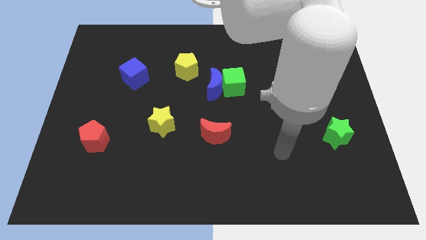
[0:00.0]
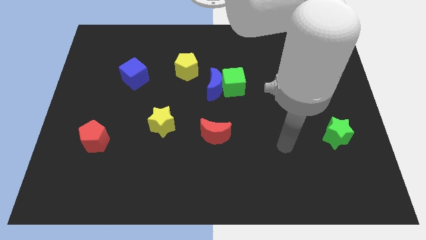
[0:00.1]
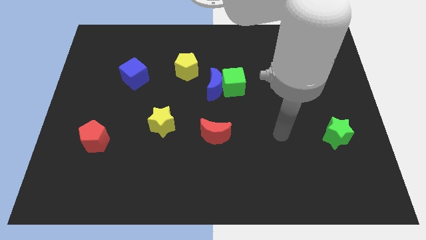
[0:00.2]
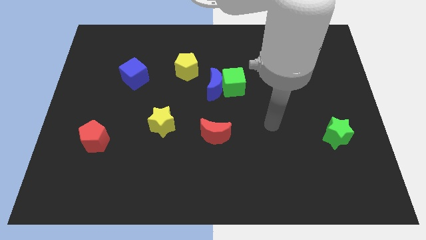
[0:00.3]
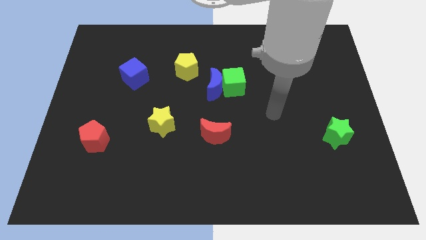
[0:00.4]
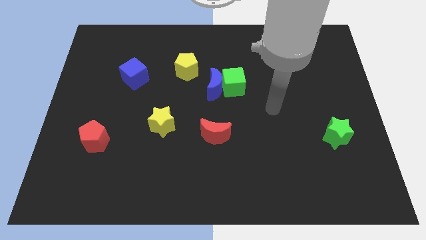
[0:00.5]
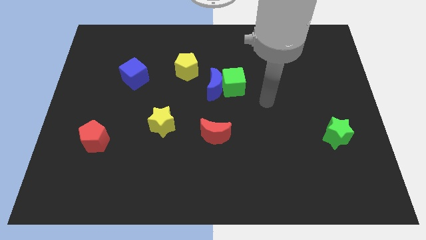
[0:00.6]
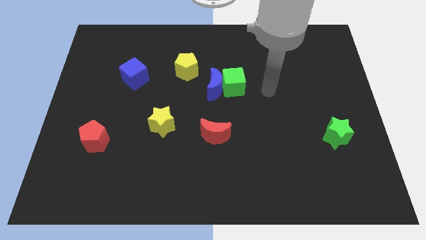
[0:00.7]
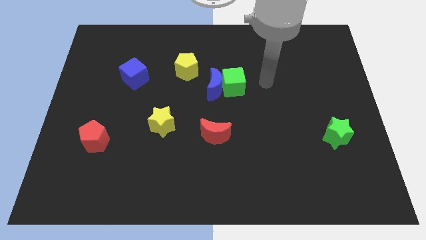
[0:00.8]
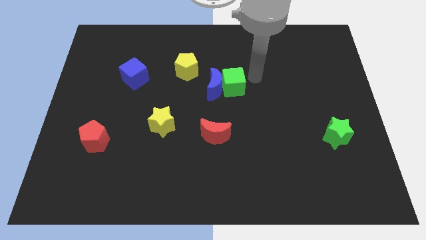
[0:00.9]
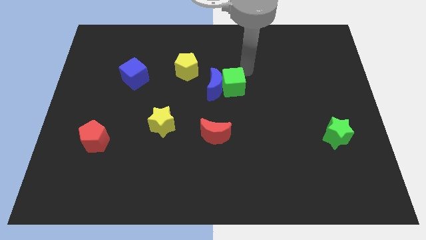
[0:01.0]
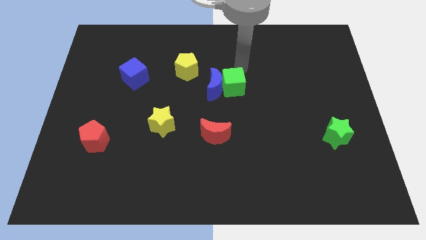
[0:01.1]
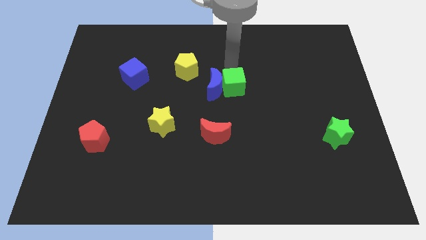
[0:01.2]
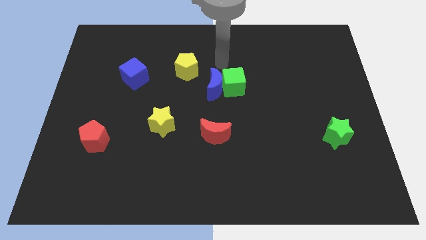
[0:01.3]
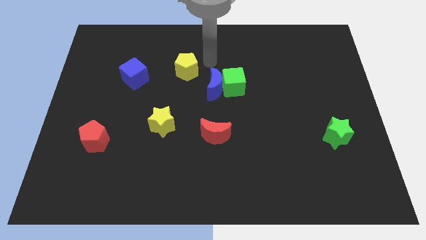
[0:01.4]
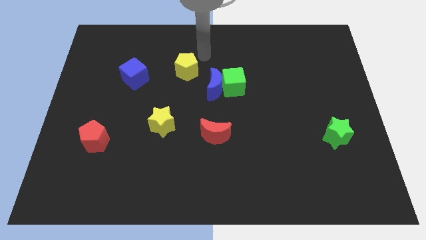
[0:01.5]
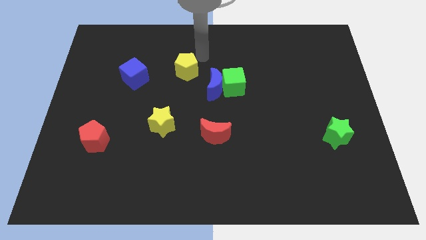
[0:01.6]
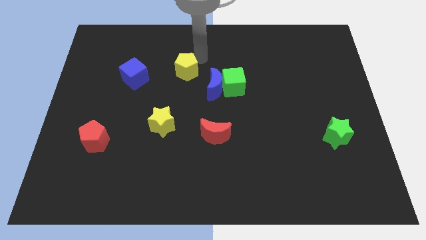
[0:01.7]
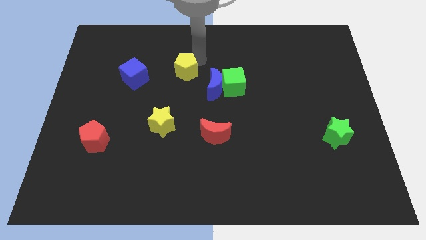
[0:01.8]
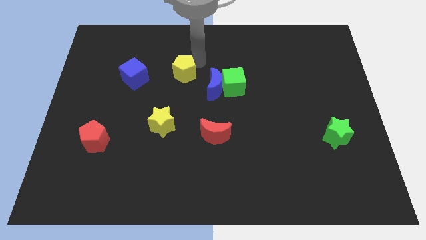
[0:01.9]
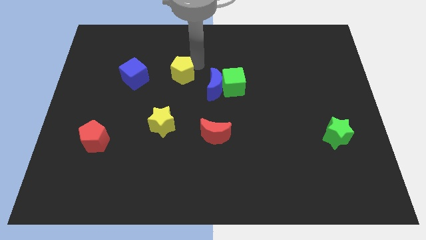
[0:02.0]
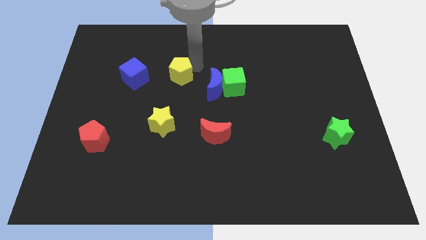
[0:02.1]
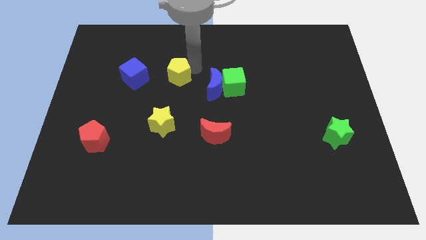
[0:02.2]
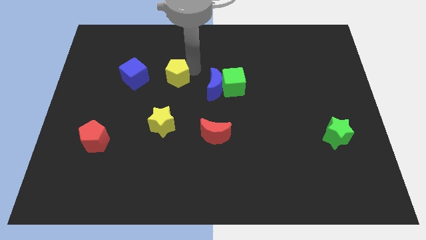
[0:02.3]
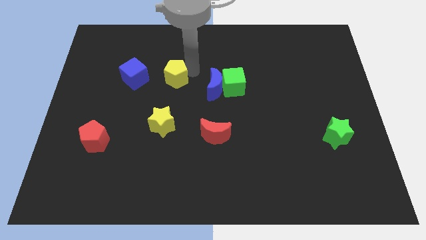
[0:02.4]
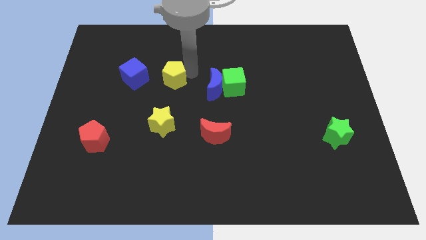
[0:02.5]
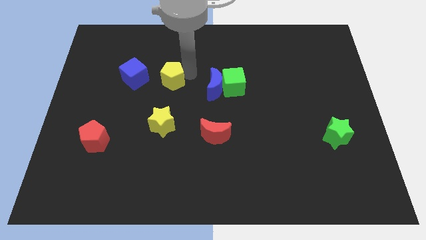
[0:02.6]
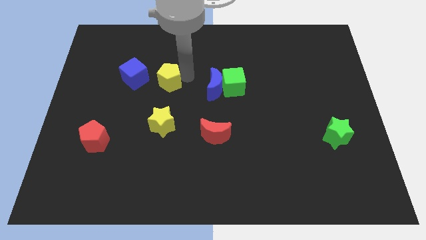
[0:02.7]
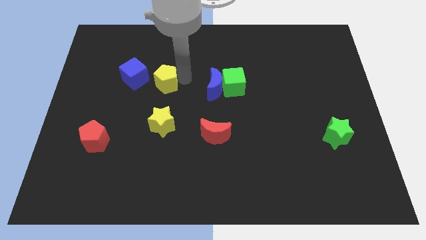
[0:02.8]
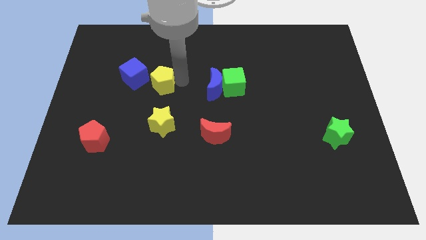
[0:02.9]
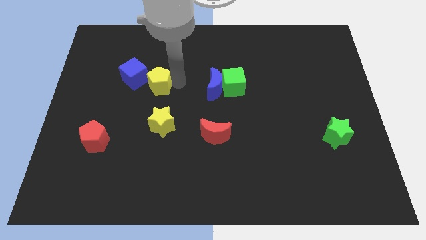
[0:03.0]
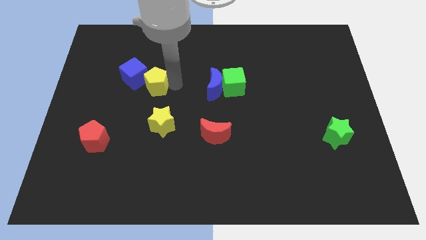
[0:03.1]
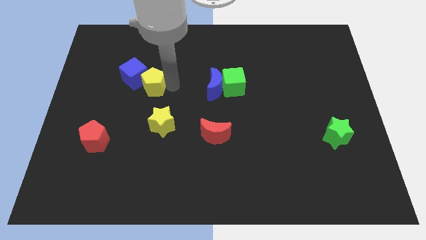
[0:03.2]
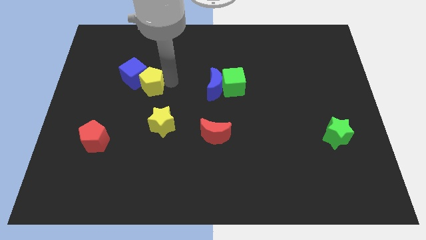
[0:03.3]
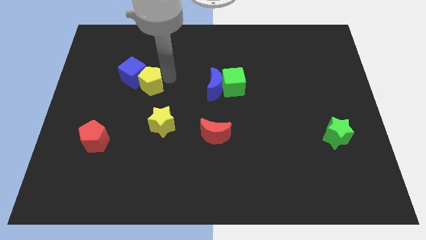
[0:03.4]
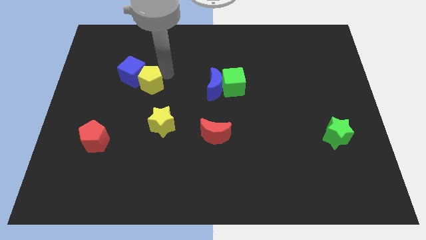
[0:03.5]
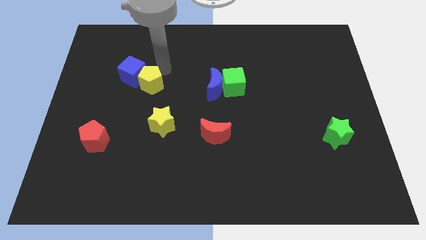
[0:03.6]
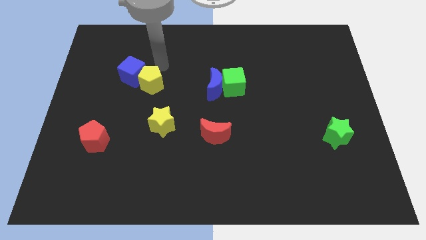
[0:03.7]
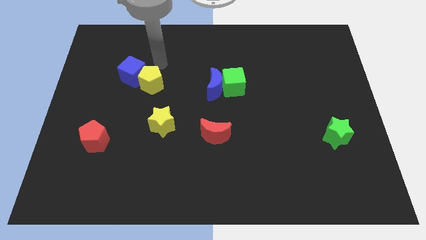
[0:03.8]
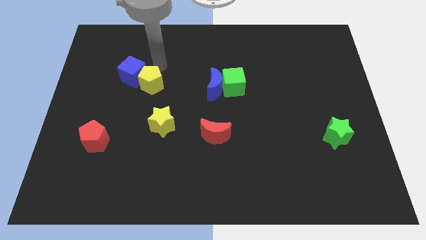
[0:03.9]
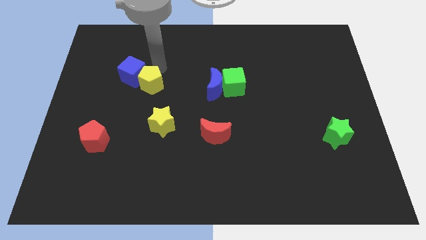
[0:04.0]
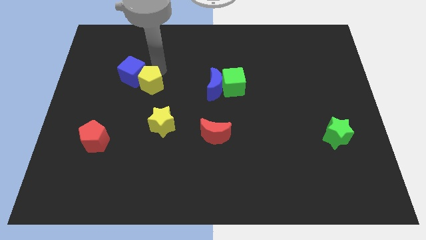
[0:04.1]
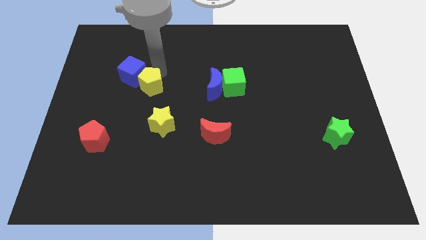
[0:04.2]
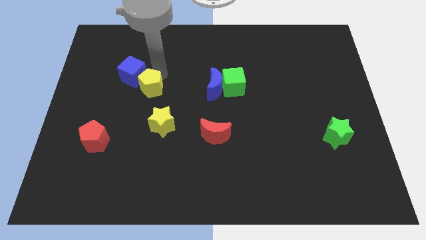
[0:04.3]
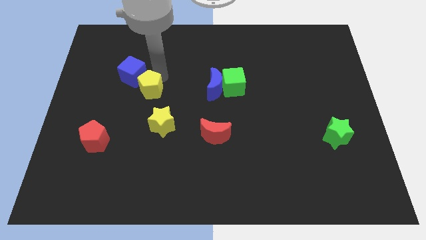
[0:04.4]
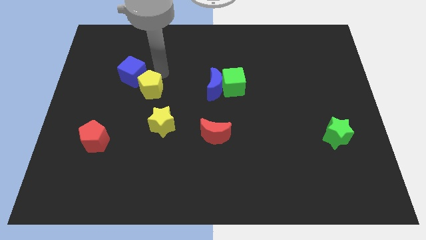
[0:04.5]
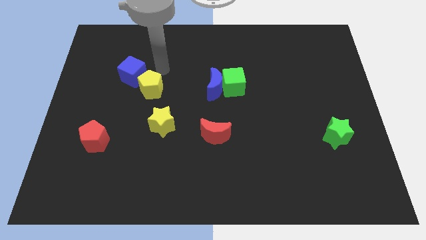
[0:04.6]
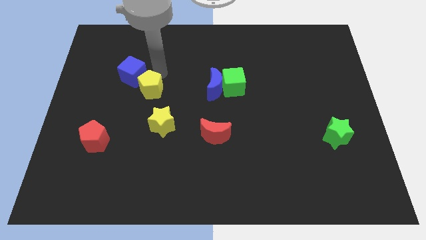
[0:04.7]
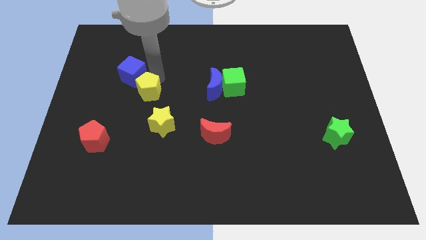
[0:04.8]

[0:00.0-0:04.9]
push the yellow pentagon to the top left of the yellow star

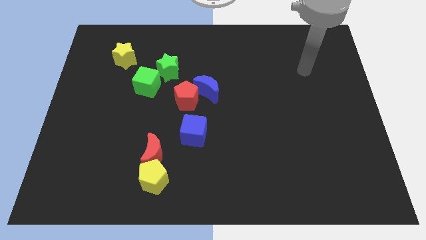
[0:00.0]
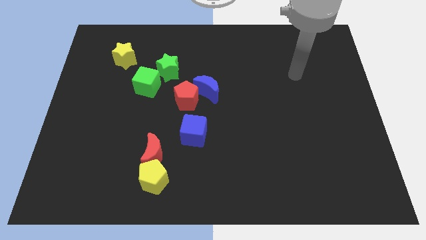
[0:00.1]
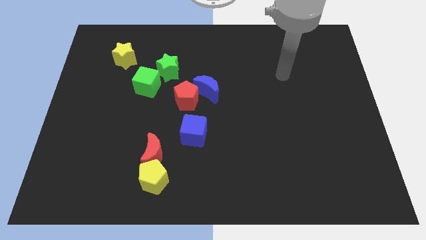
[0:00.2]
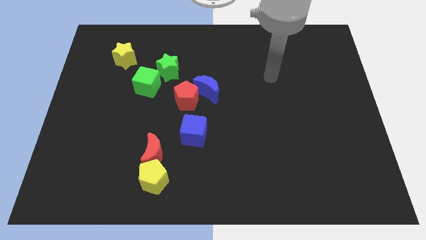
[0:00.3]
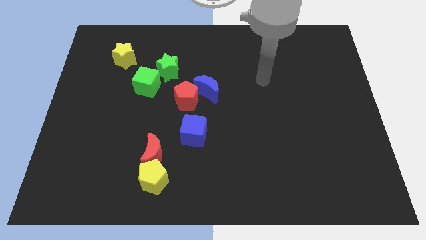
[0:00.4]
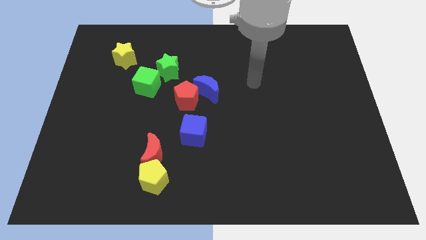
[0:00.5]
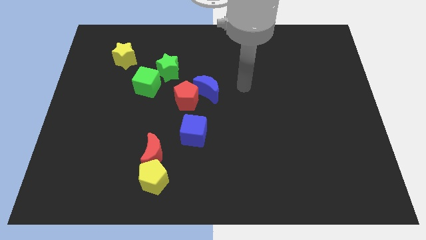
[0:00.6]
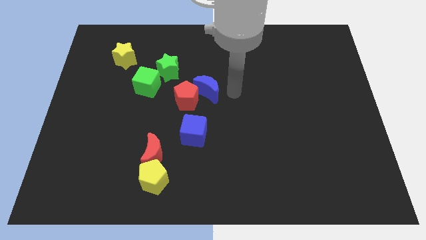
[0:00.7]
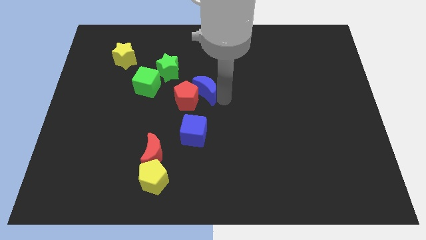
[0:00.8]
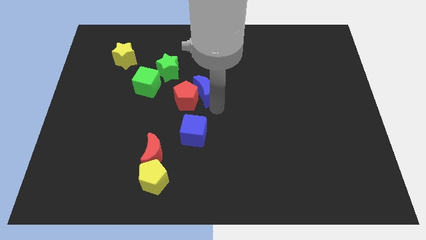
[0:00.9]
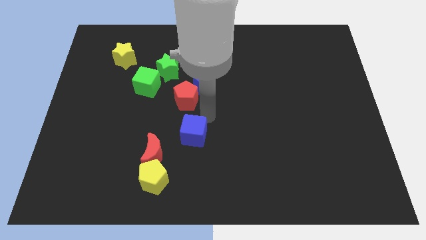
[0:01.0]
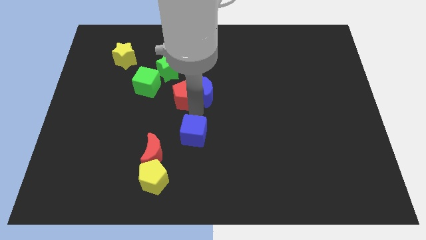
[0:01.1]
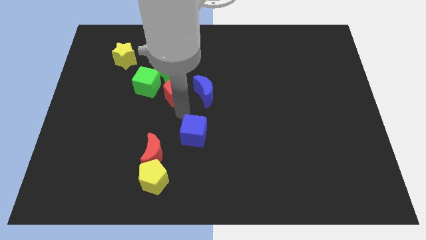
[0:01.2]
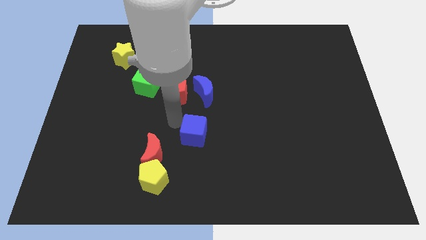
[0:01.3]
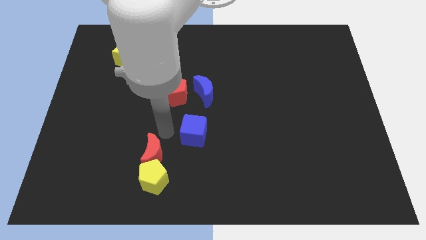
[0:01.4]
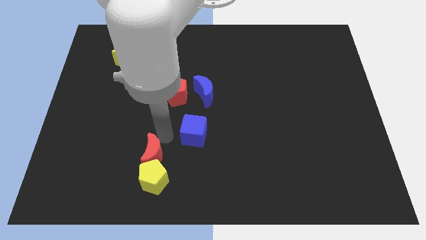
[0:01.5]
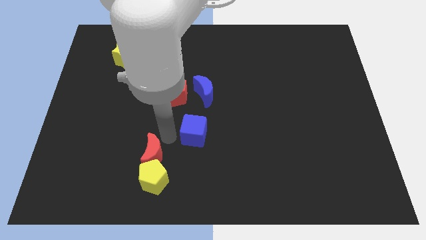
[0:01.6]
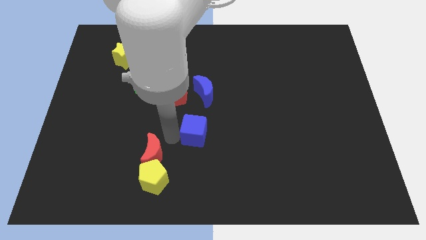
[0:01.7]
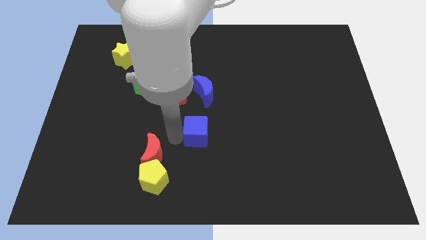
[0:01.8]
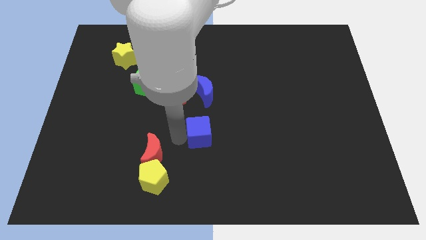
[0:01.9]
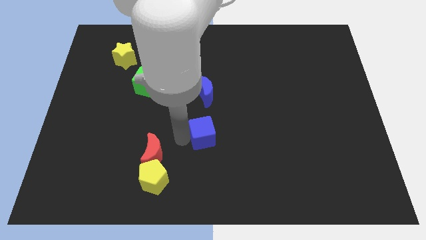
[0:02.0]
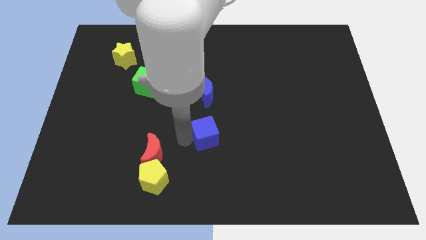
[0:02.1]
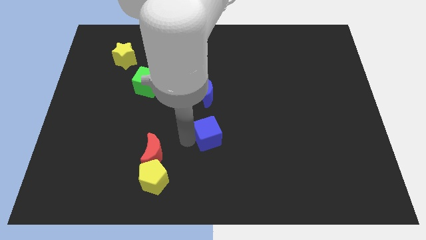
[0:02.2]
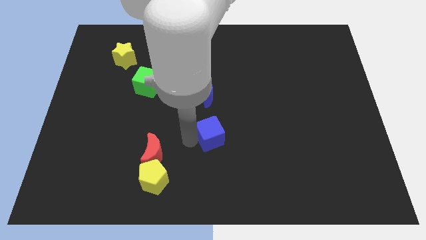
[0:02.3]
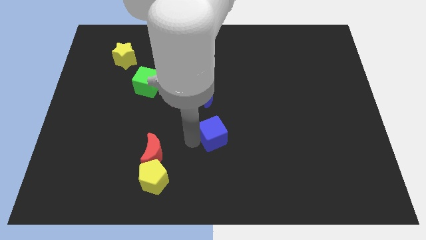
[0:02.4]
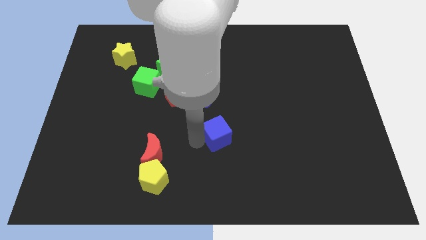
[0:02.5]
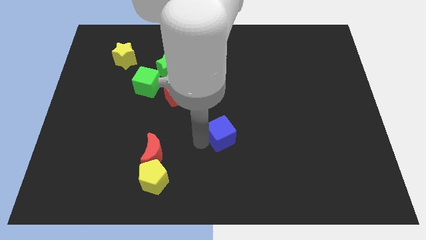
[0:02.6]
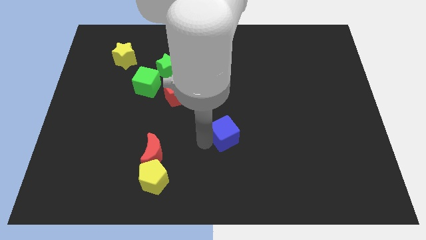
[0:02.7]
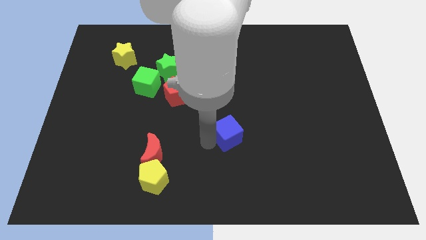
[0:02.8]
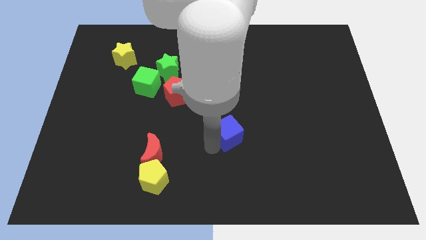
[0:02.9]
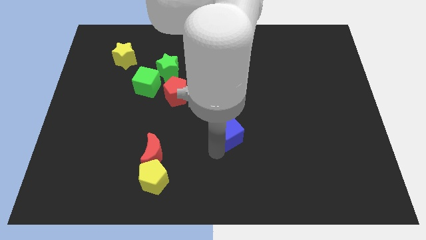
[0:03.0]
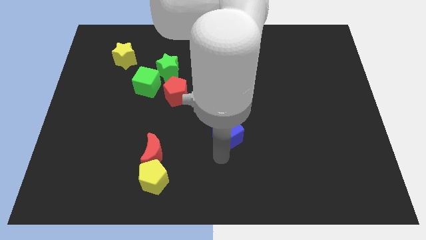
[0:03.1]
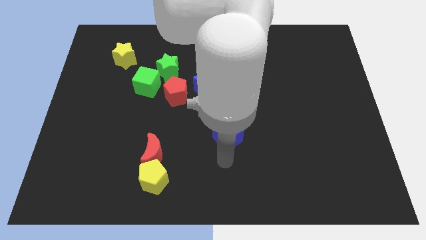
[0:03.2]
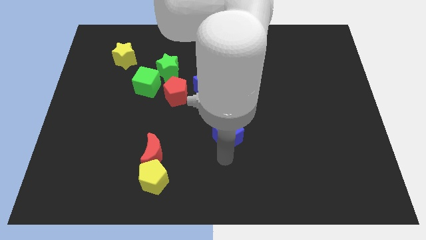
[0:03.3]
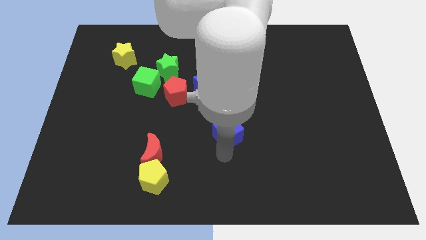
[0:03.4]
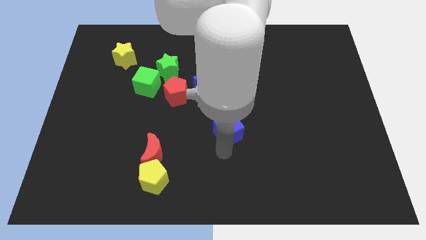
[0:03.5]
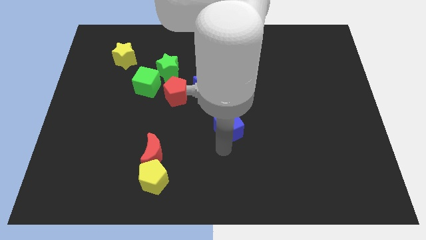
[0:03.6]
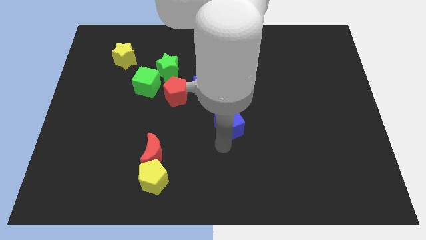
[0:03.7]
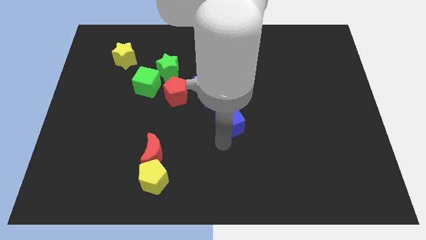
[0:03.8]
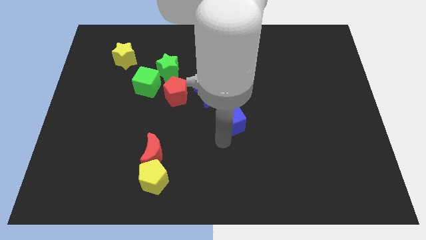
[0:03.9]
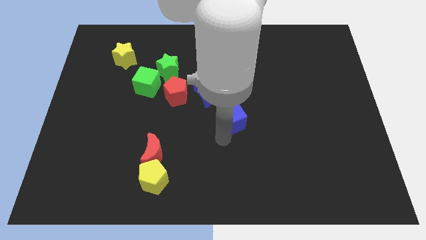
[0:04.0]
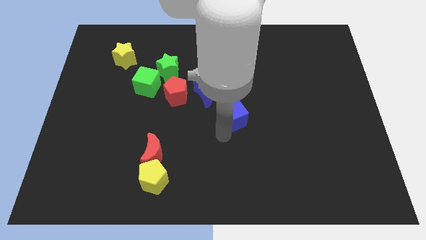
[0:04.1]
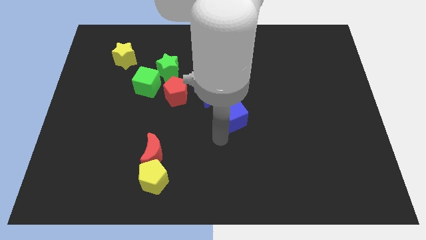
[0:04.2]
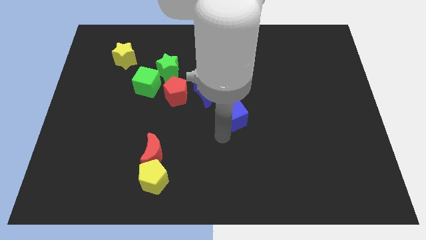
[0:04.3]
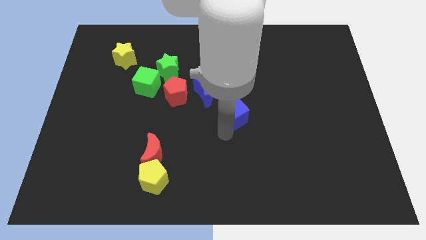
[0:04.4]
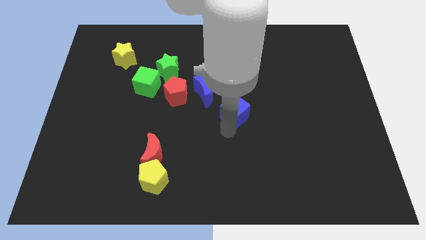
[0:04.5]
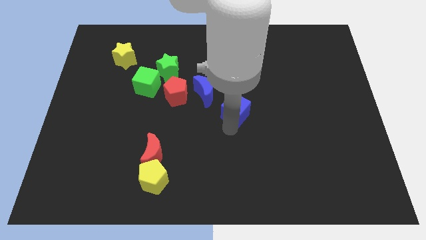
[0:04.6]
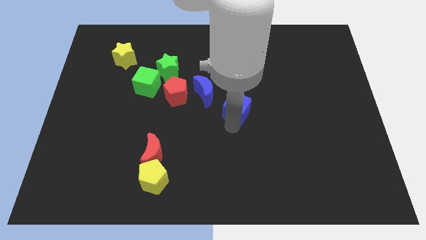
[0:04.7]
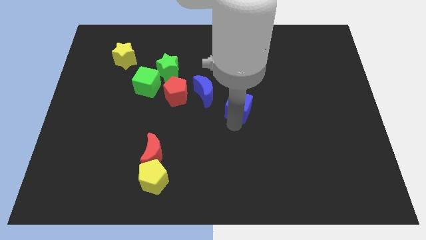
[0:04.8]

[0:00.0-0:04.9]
slide the blue cube right of the blue moon
